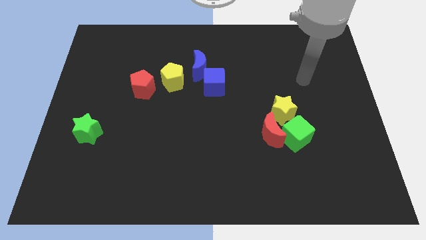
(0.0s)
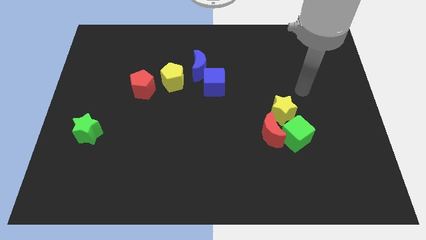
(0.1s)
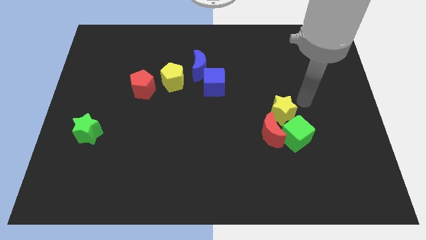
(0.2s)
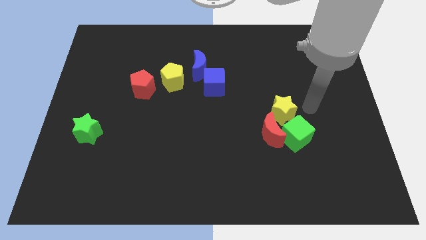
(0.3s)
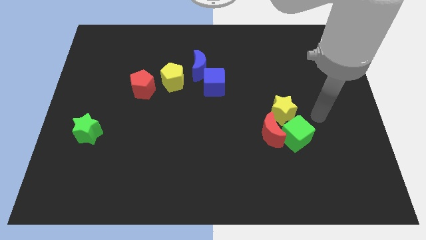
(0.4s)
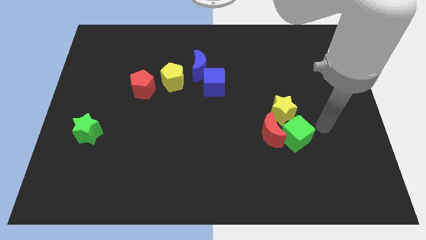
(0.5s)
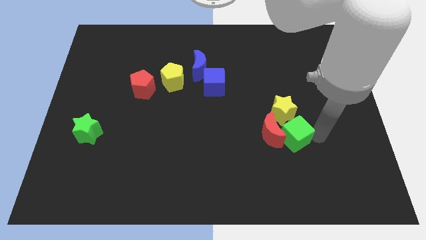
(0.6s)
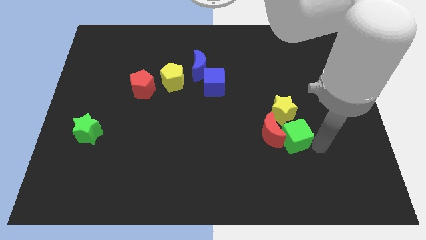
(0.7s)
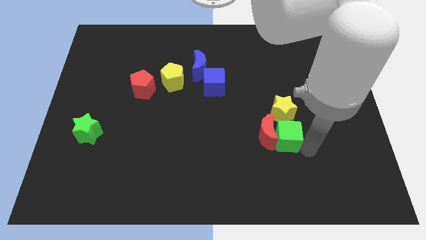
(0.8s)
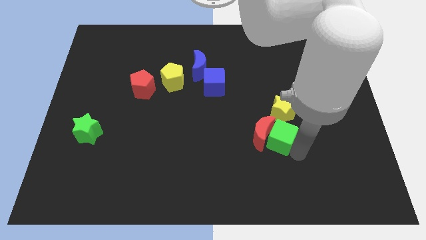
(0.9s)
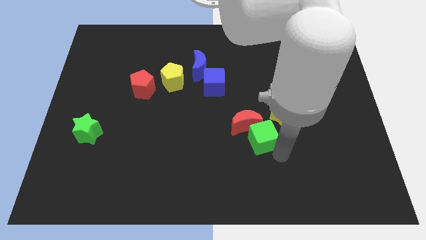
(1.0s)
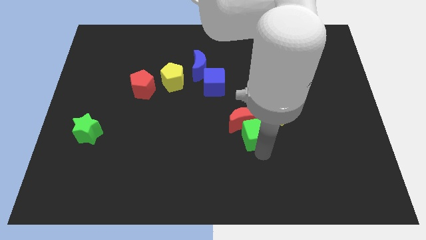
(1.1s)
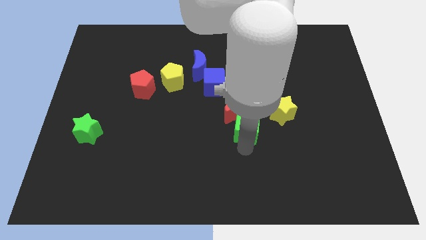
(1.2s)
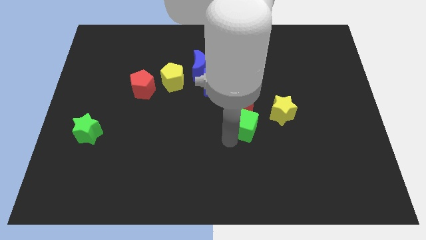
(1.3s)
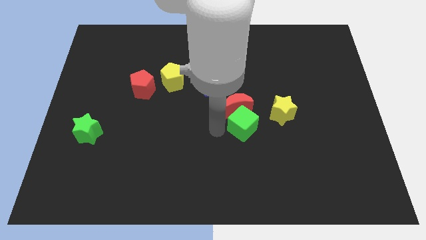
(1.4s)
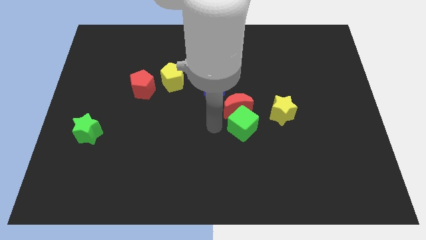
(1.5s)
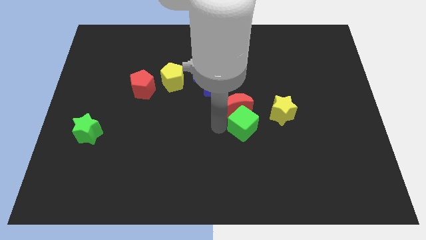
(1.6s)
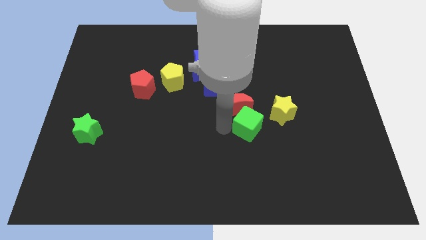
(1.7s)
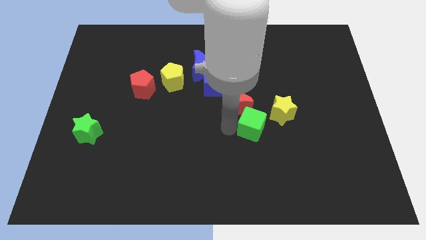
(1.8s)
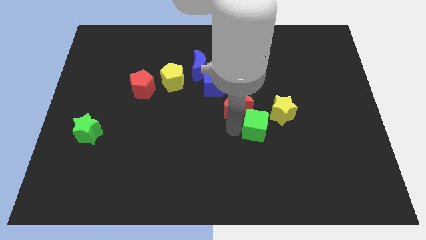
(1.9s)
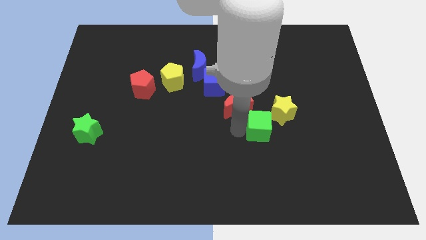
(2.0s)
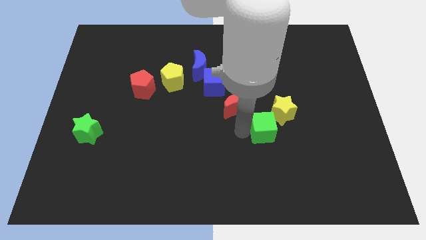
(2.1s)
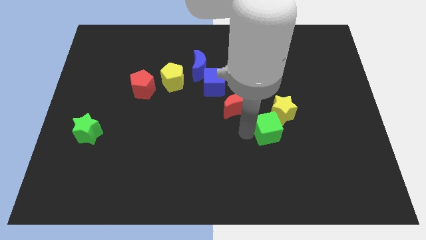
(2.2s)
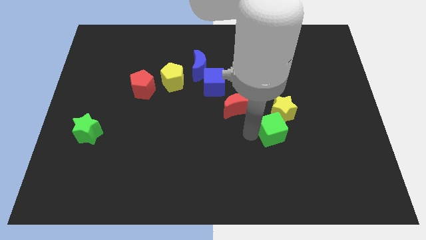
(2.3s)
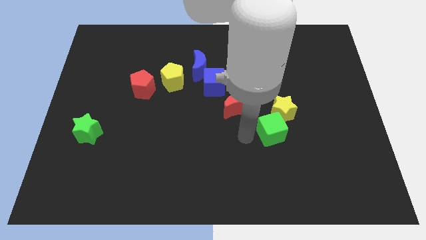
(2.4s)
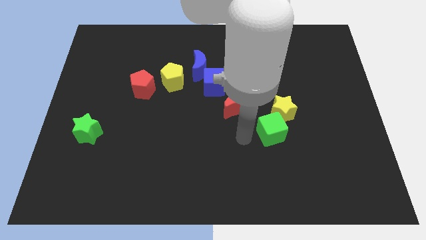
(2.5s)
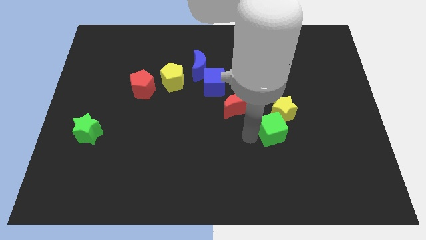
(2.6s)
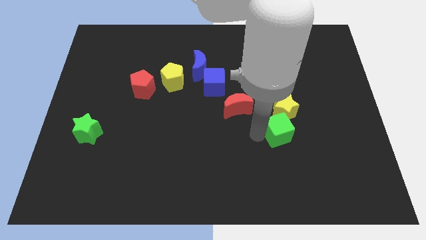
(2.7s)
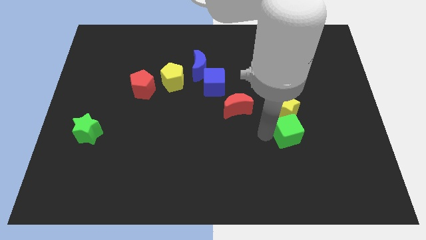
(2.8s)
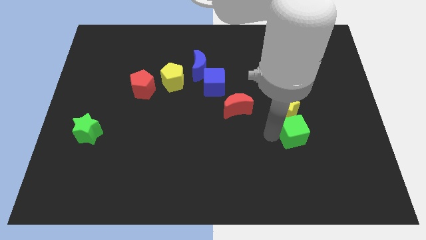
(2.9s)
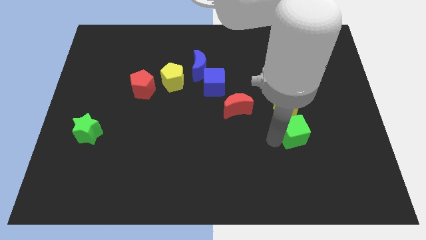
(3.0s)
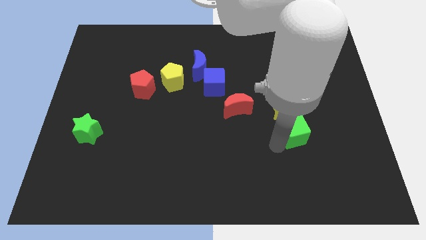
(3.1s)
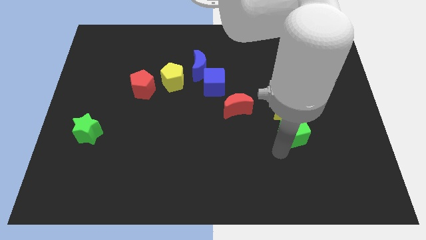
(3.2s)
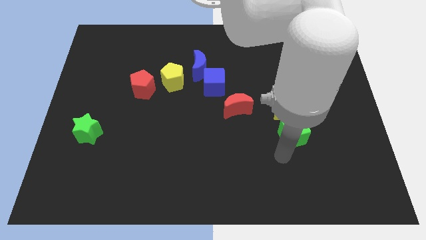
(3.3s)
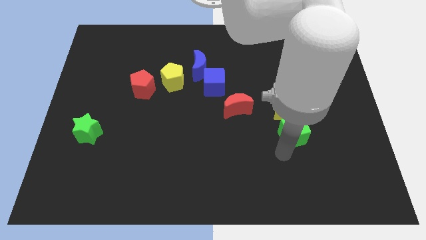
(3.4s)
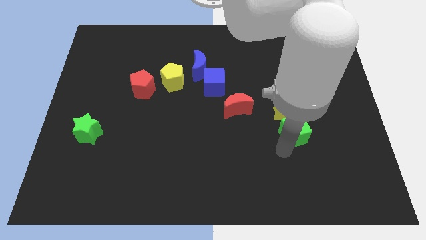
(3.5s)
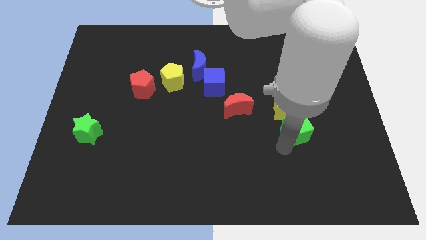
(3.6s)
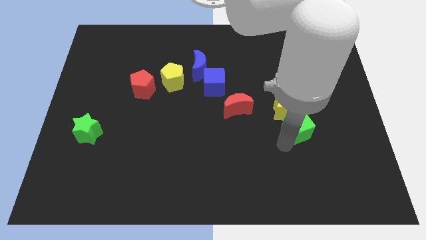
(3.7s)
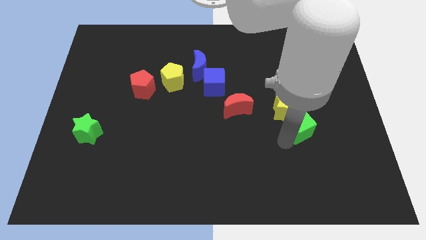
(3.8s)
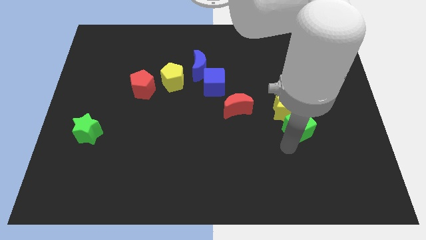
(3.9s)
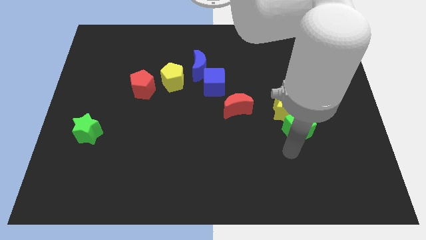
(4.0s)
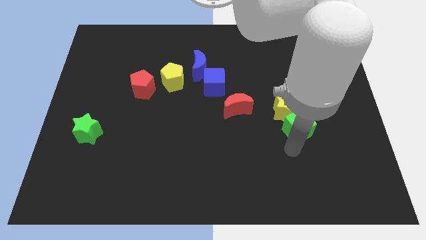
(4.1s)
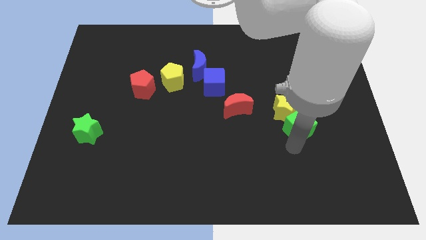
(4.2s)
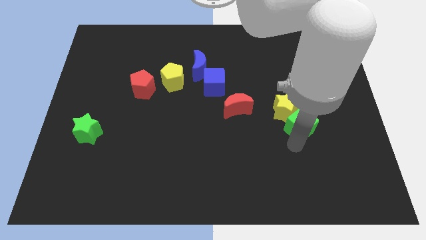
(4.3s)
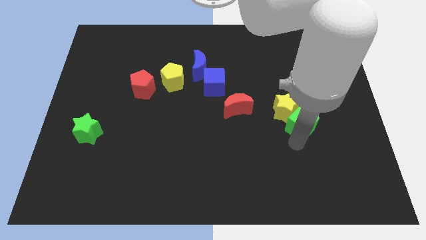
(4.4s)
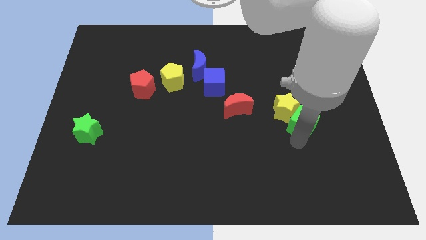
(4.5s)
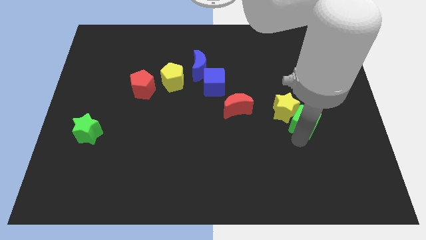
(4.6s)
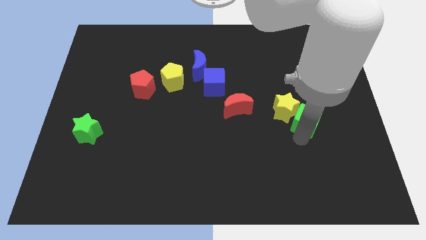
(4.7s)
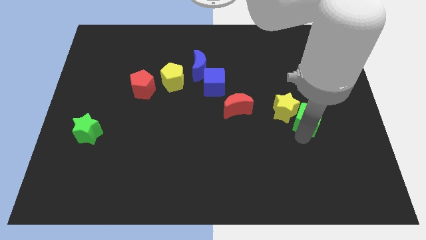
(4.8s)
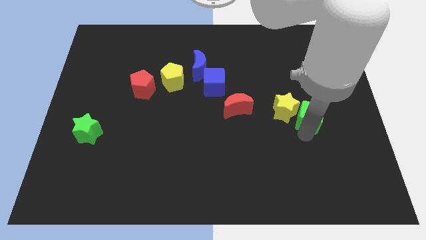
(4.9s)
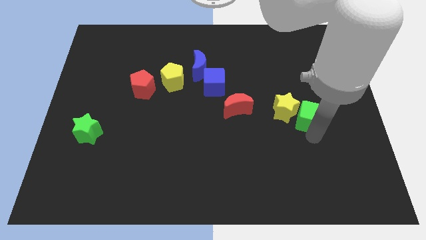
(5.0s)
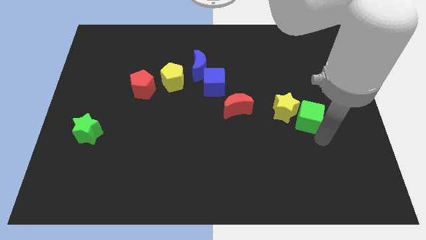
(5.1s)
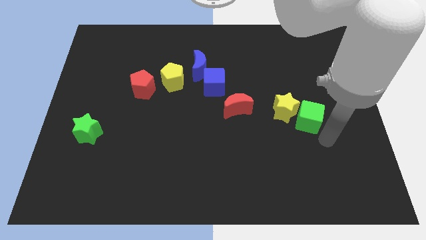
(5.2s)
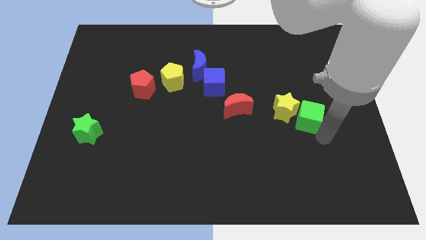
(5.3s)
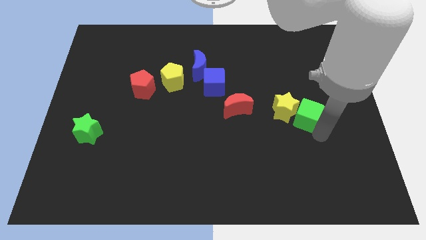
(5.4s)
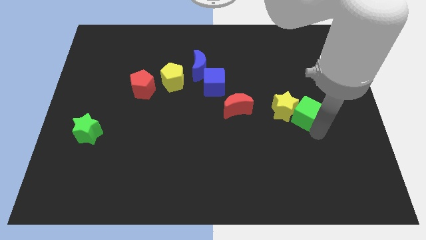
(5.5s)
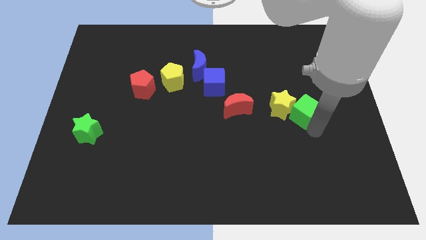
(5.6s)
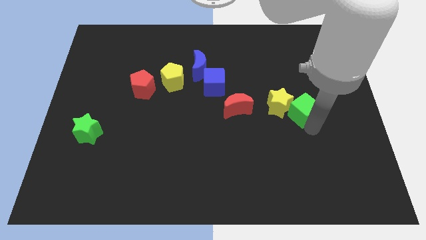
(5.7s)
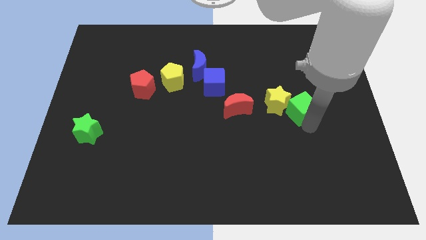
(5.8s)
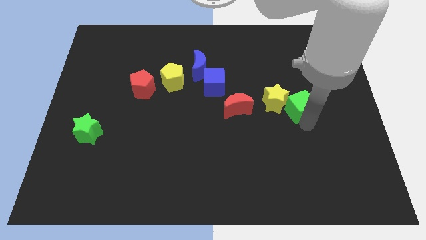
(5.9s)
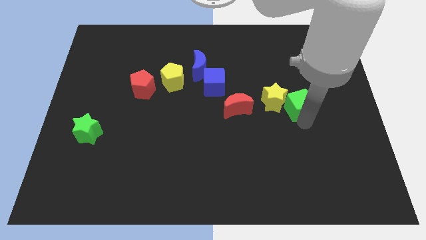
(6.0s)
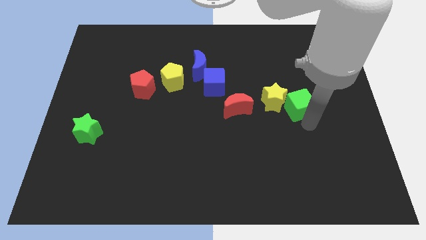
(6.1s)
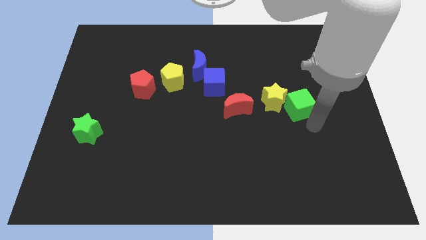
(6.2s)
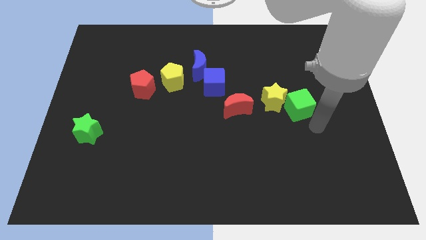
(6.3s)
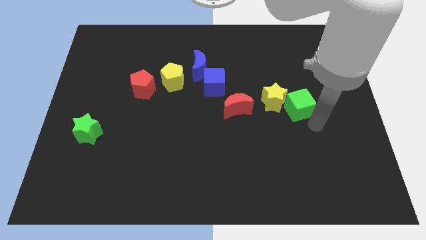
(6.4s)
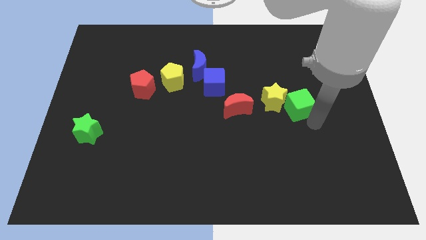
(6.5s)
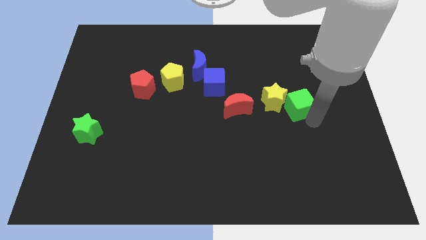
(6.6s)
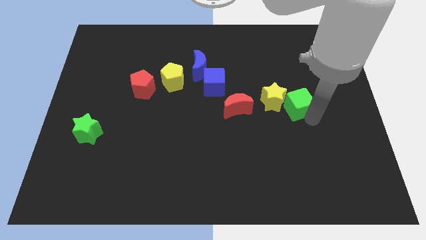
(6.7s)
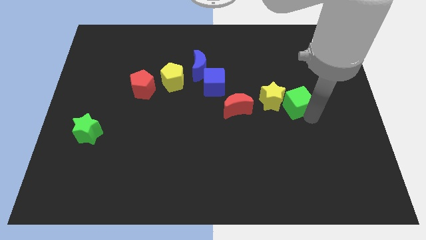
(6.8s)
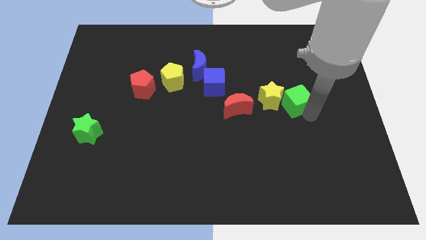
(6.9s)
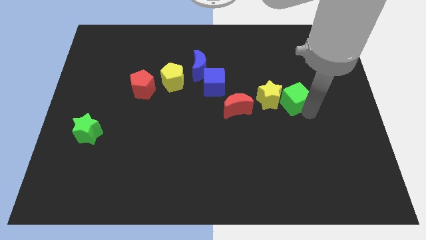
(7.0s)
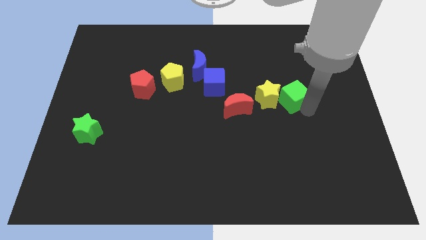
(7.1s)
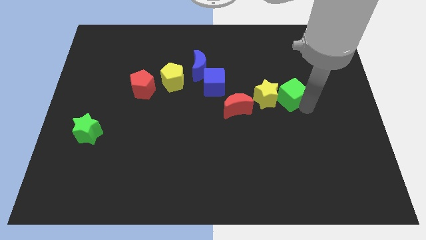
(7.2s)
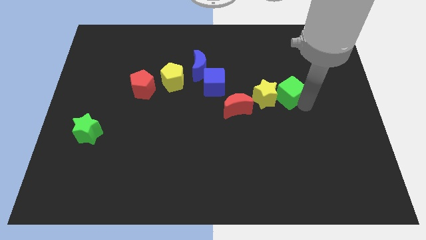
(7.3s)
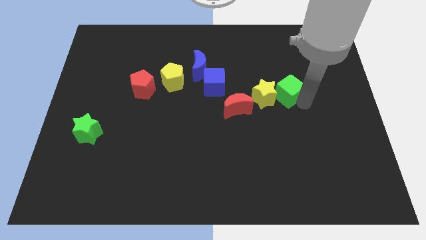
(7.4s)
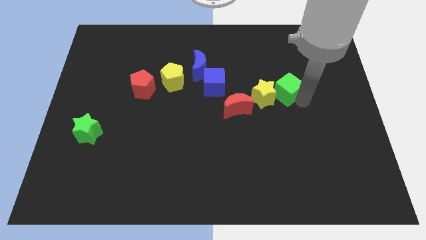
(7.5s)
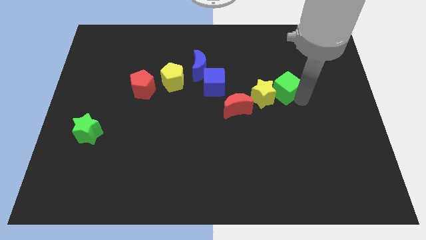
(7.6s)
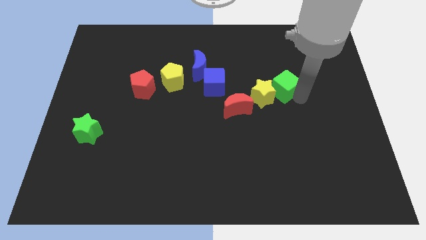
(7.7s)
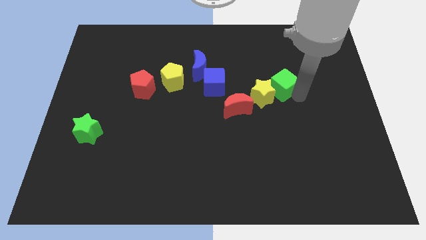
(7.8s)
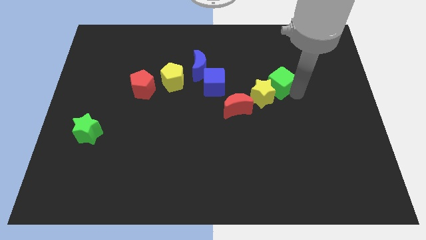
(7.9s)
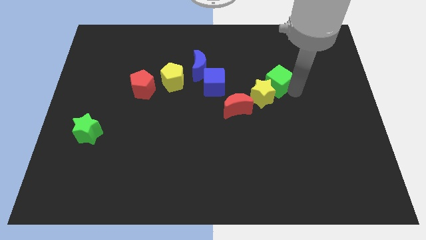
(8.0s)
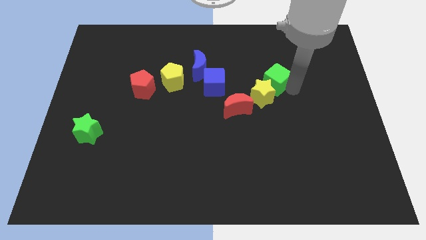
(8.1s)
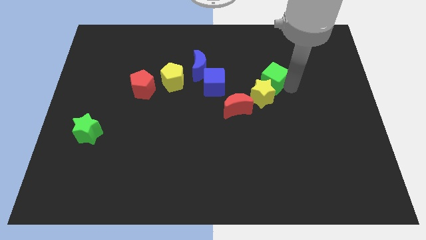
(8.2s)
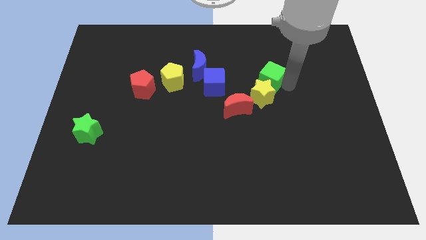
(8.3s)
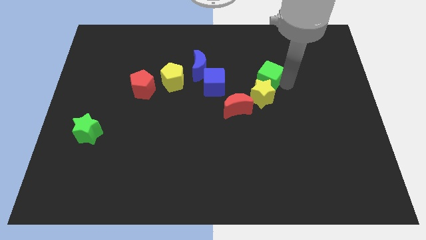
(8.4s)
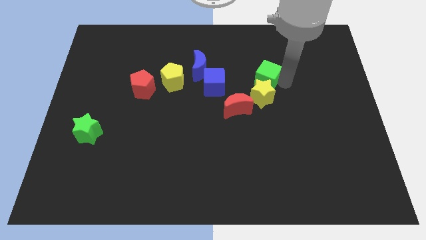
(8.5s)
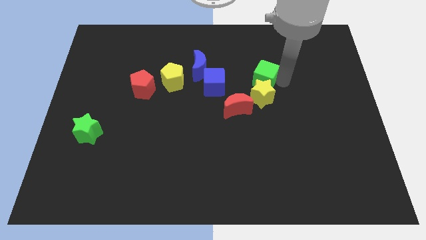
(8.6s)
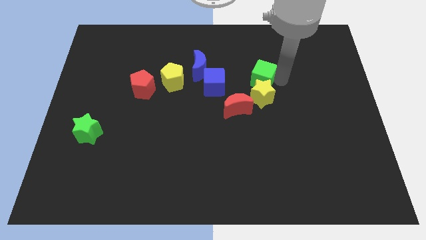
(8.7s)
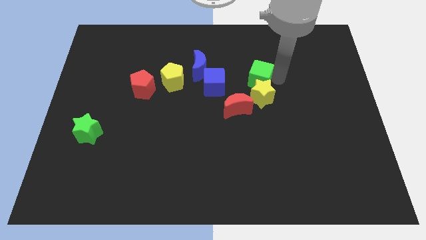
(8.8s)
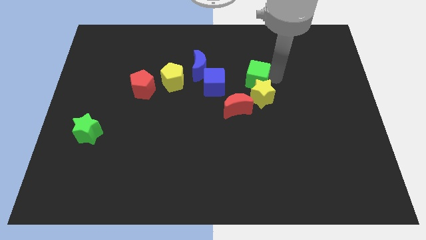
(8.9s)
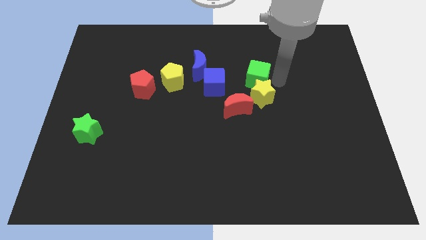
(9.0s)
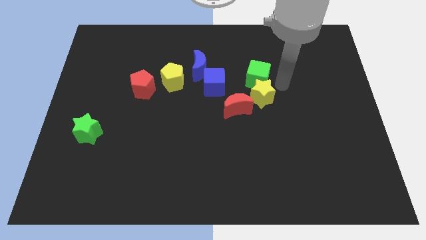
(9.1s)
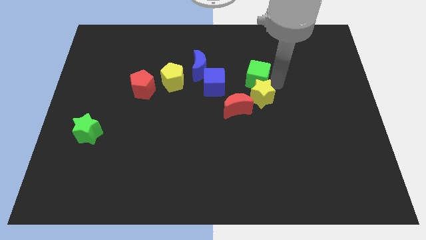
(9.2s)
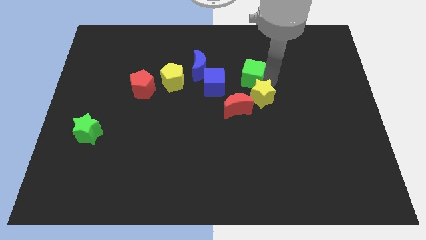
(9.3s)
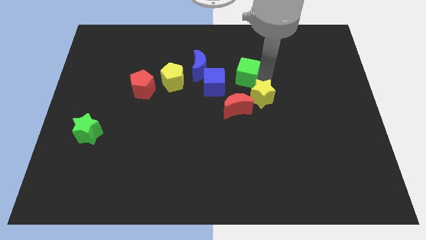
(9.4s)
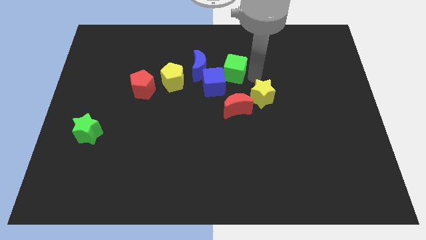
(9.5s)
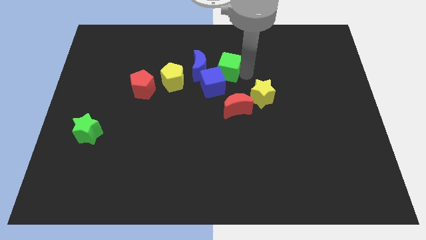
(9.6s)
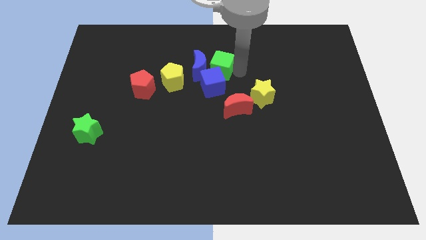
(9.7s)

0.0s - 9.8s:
push the green cube to the blue moon
